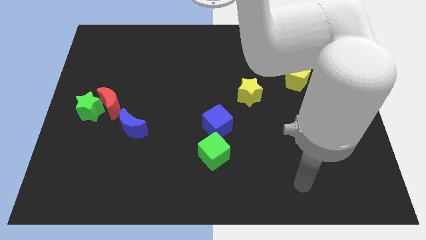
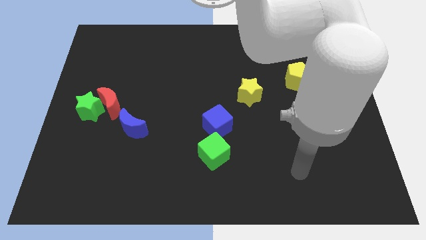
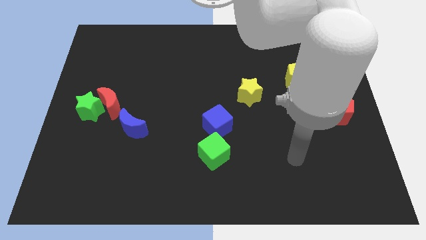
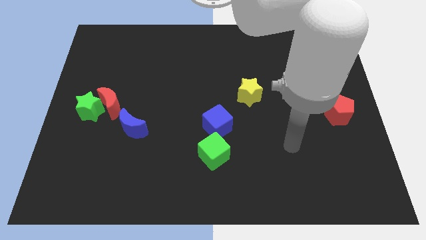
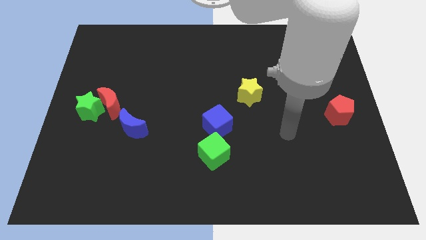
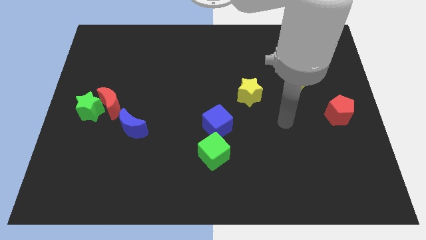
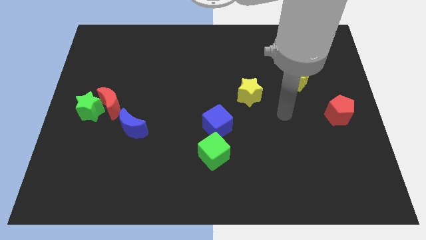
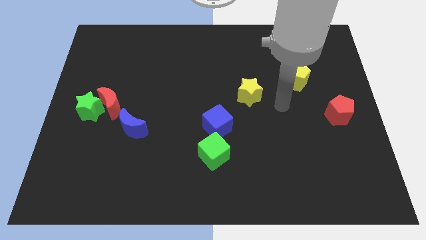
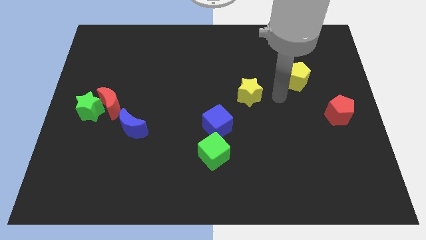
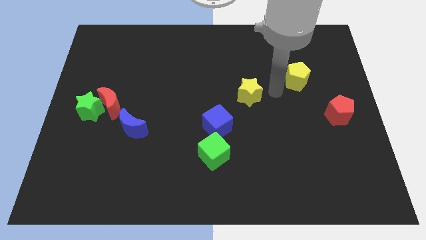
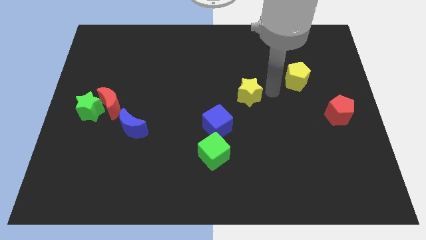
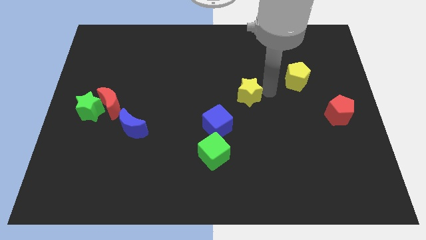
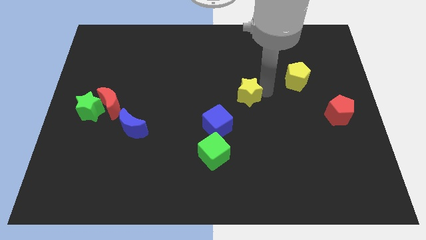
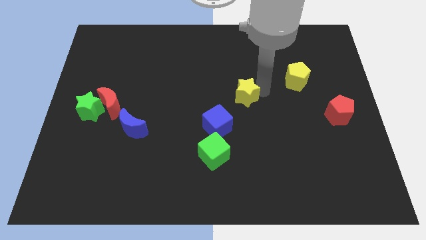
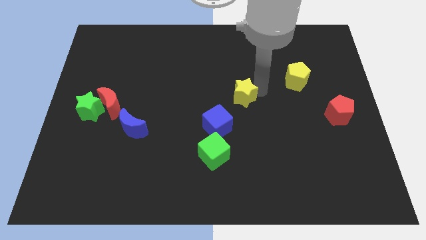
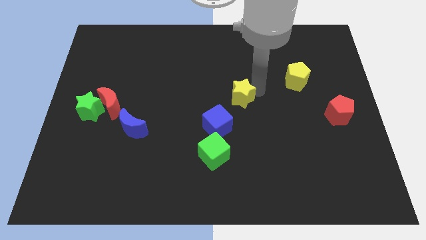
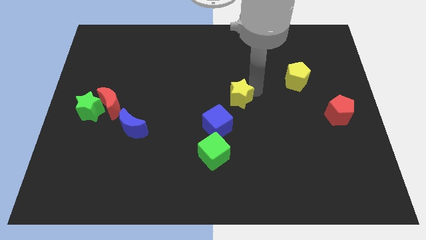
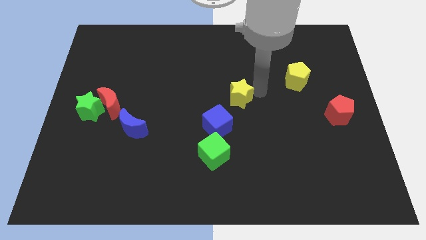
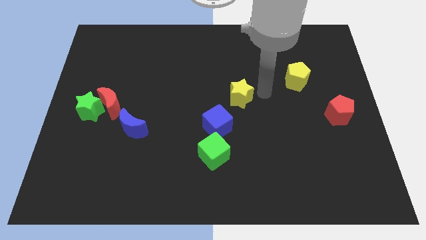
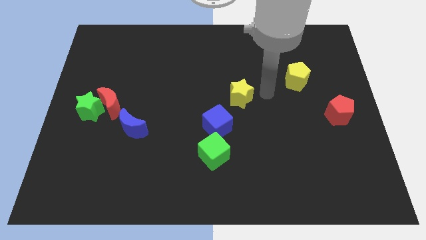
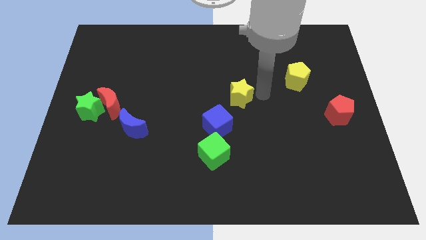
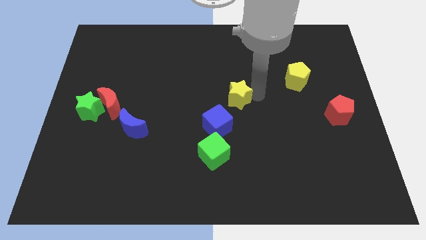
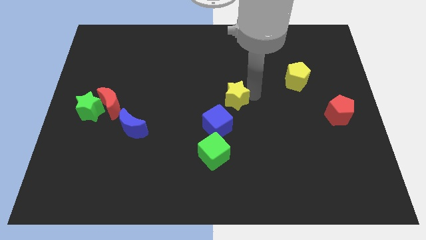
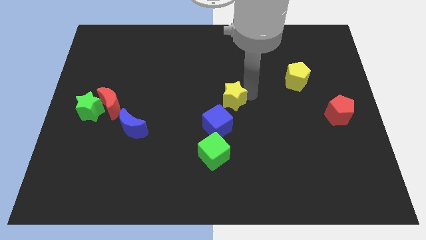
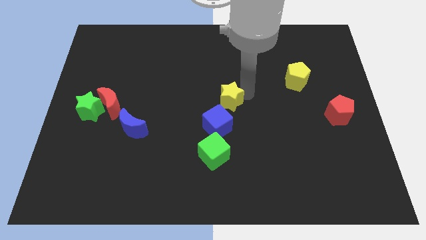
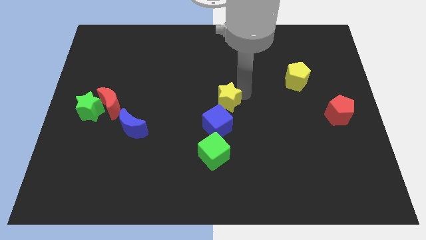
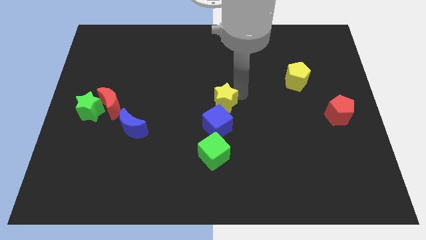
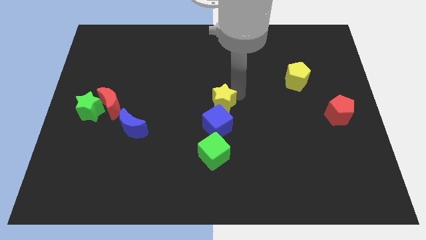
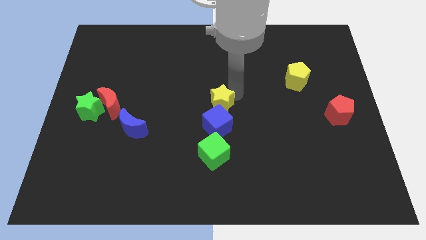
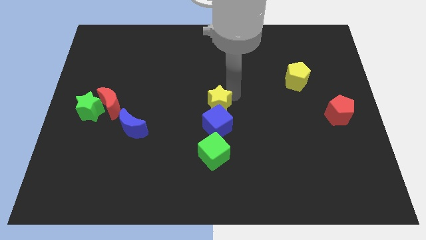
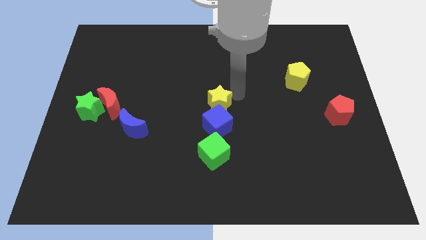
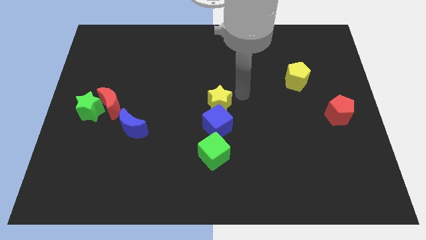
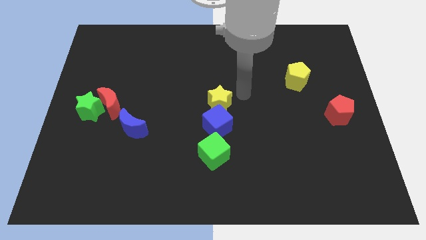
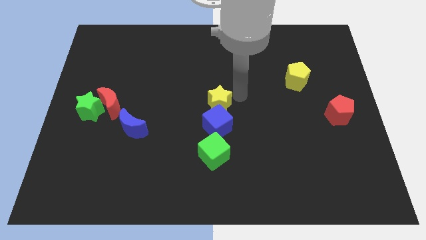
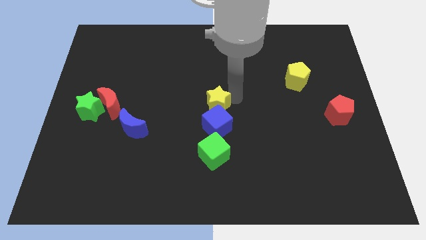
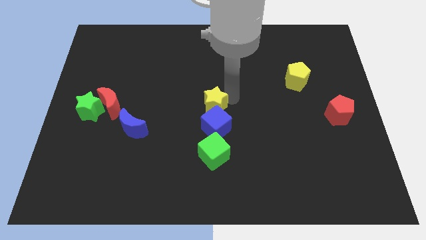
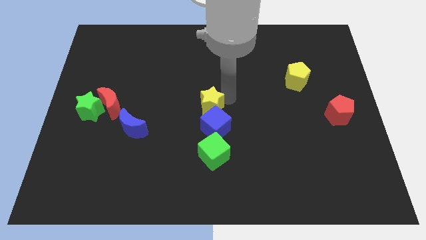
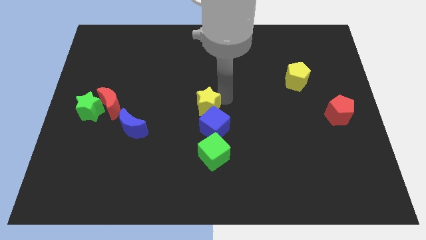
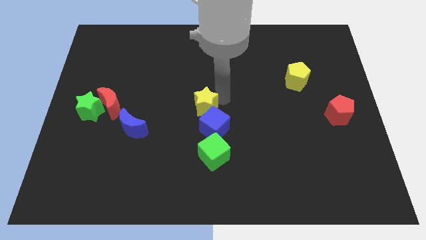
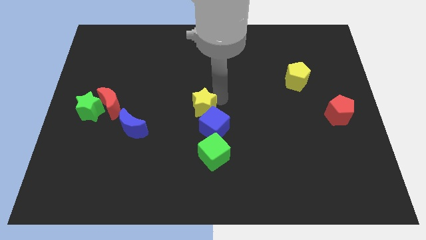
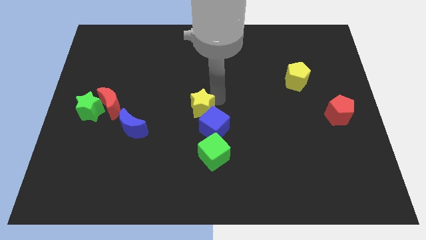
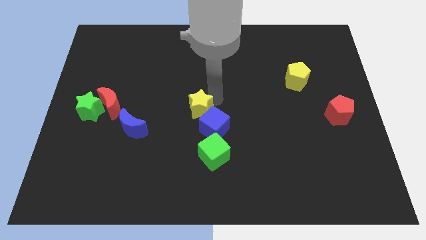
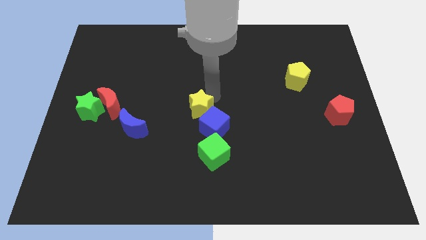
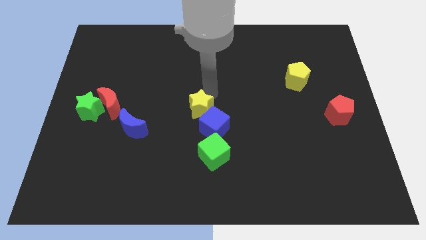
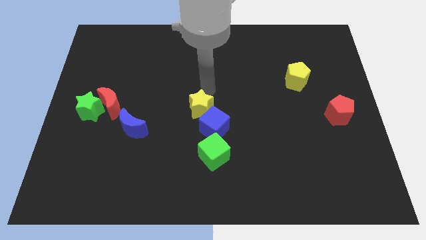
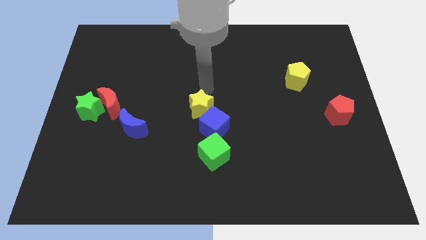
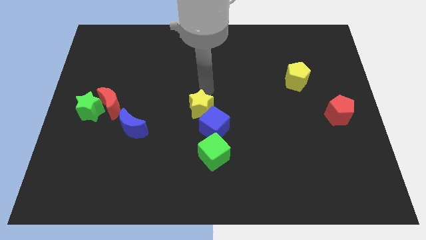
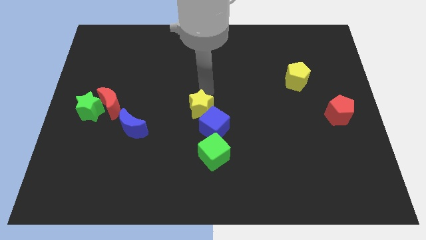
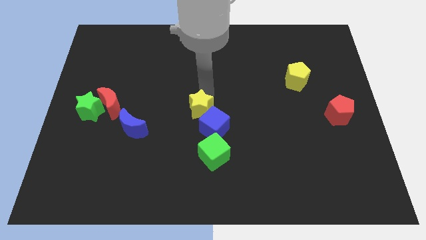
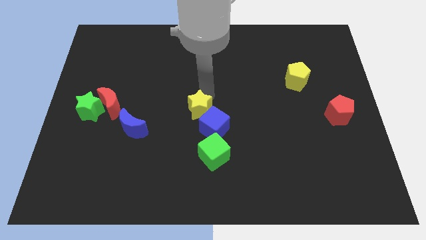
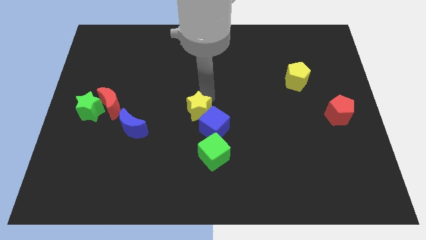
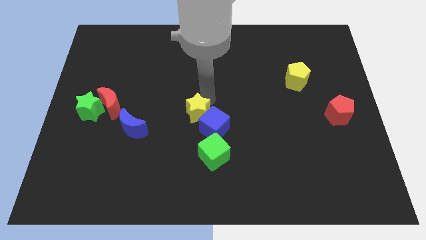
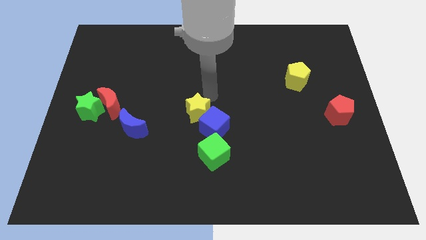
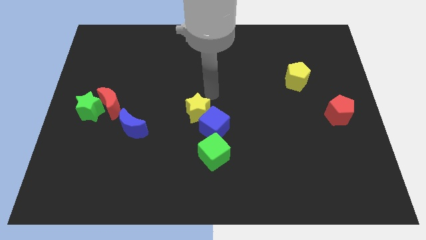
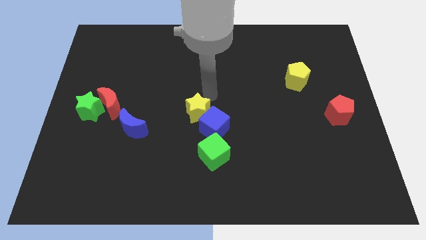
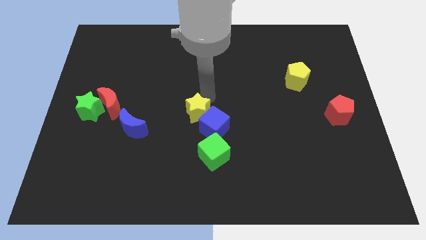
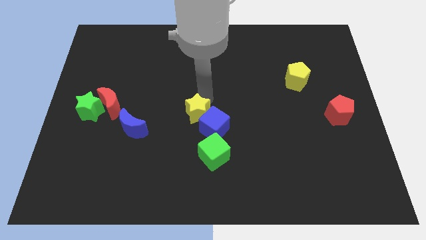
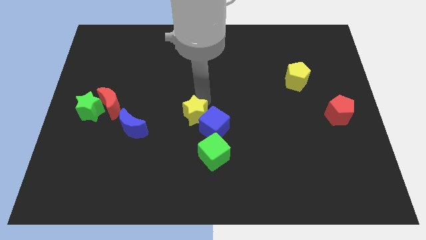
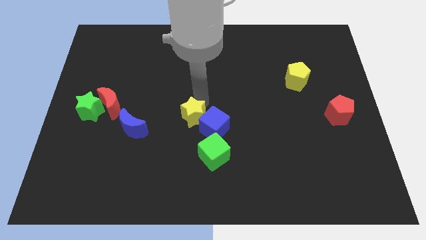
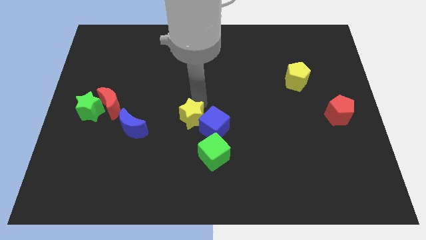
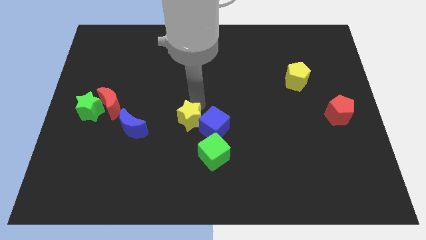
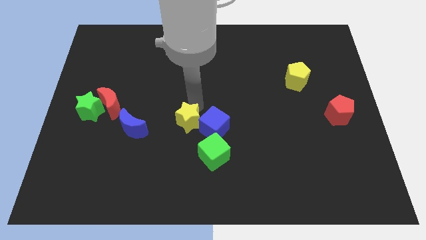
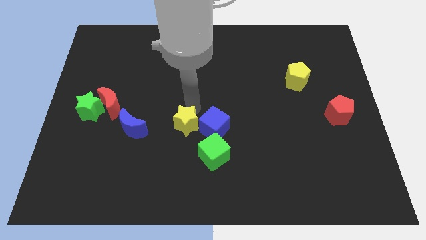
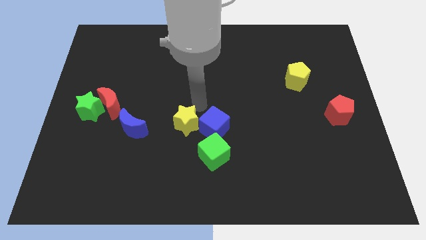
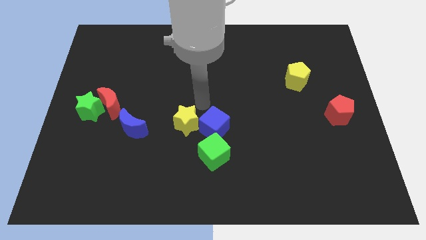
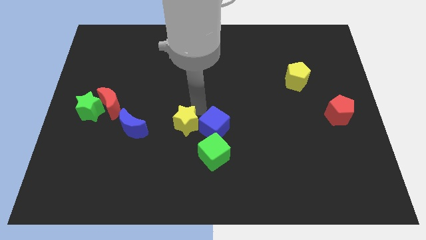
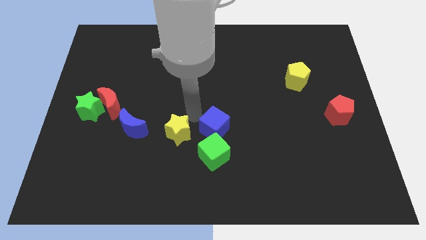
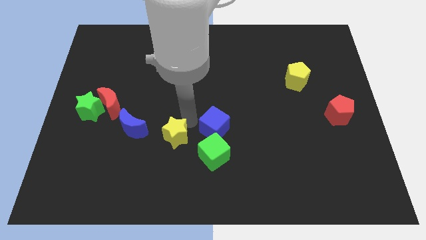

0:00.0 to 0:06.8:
put the yellow star to the left side of the green cube
